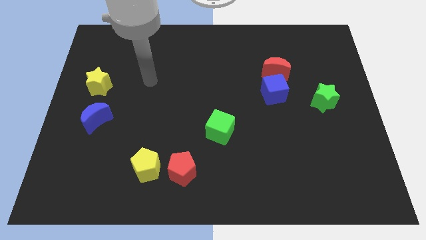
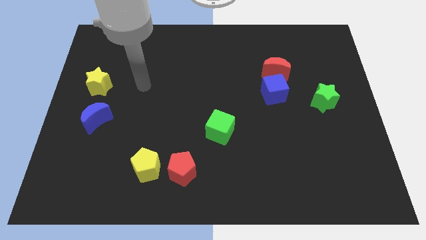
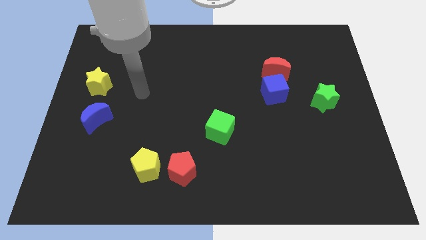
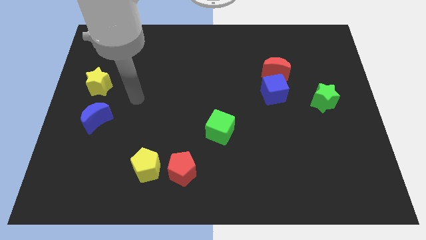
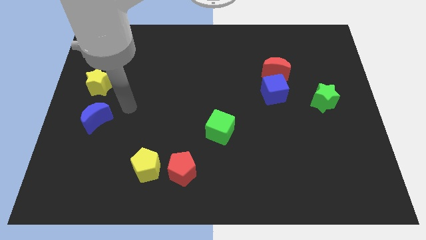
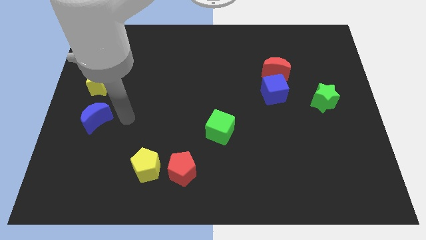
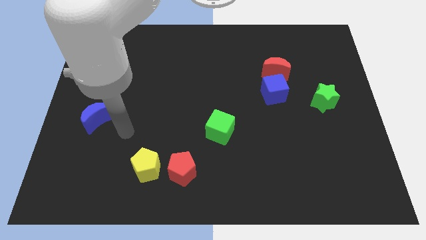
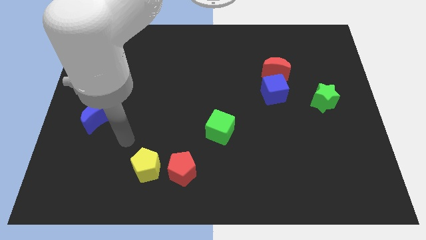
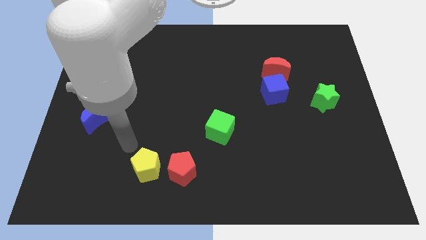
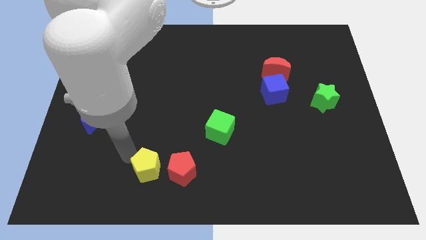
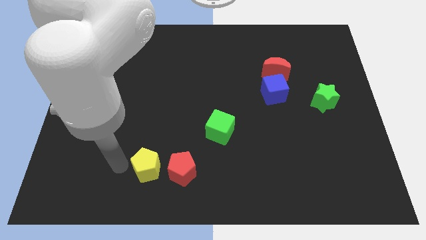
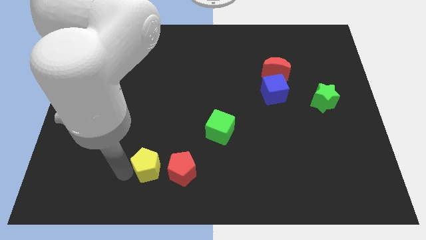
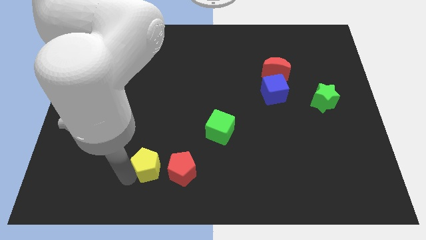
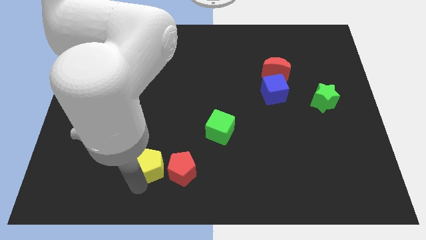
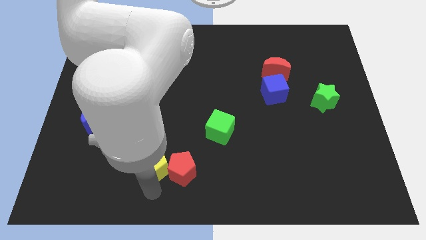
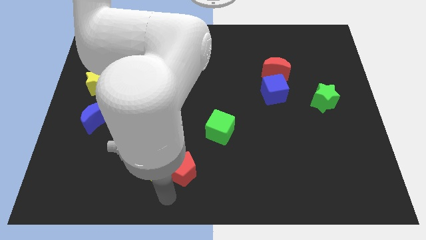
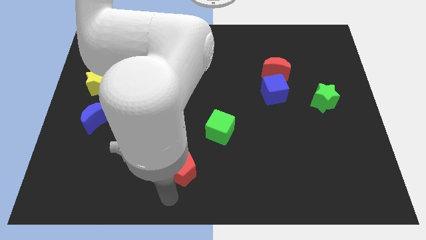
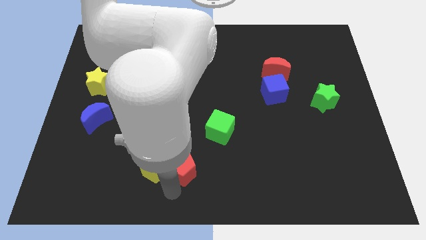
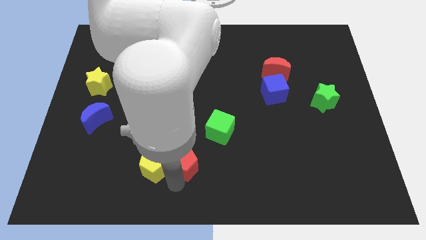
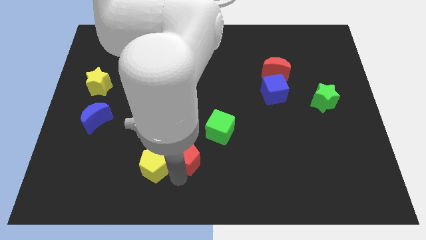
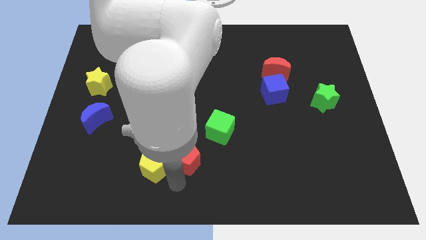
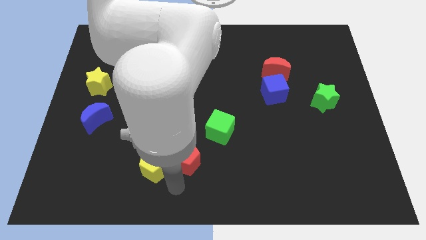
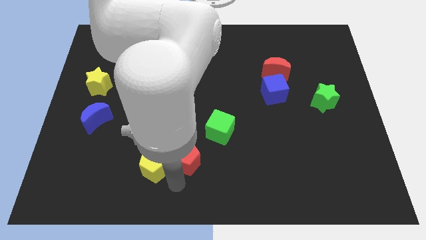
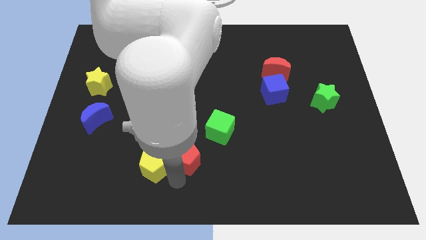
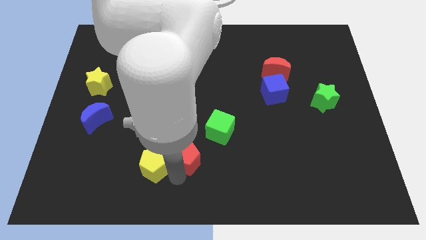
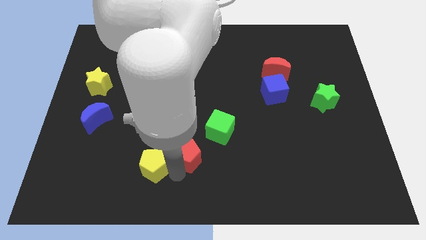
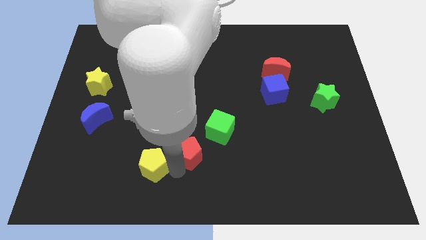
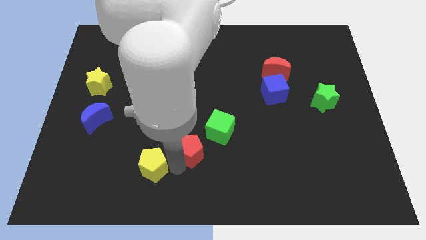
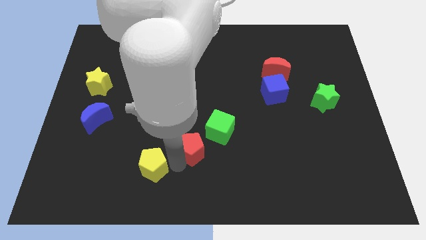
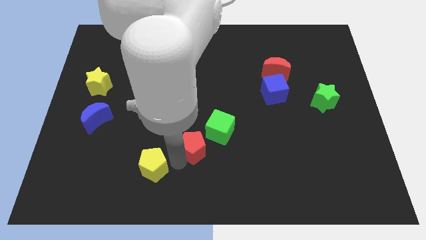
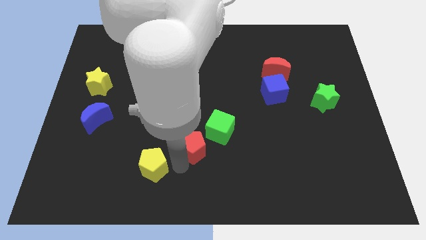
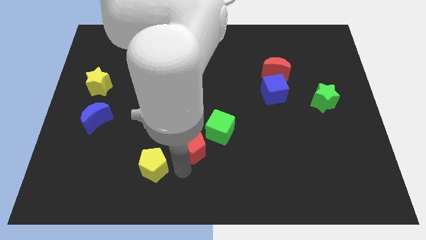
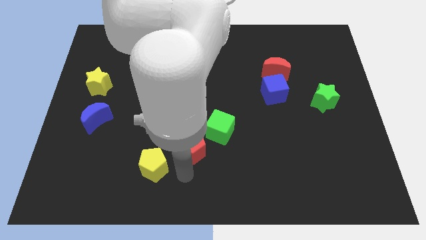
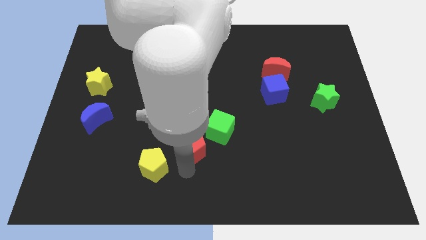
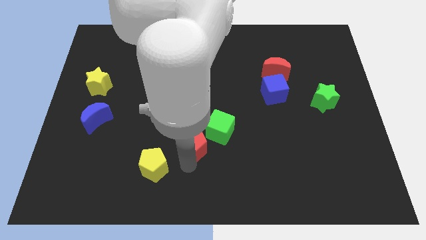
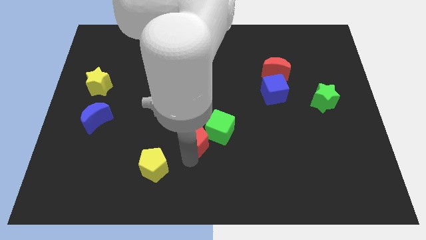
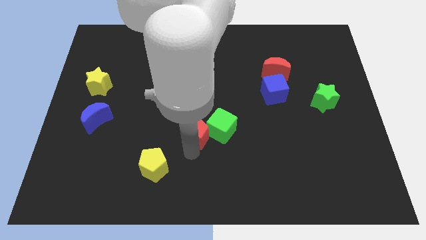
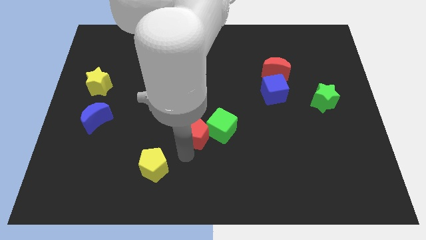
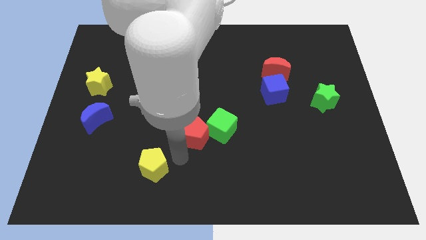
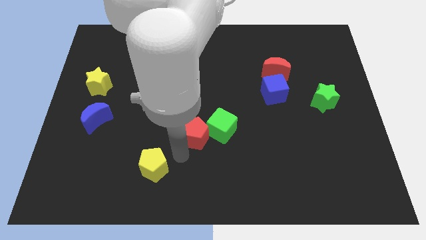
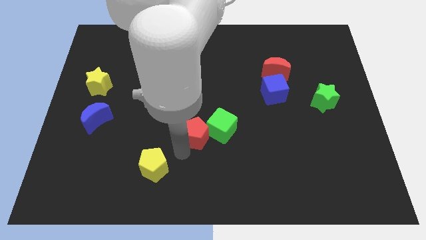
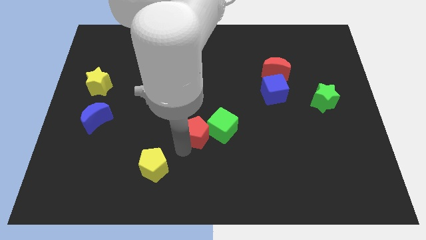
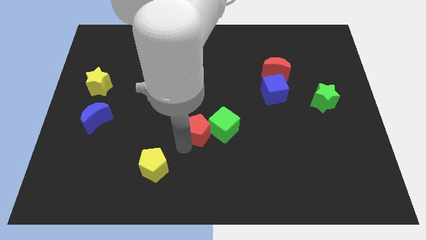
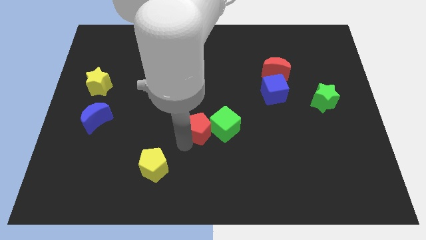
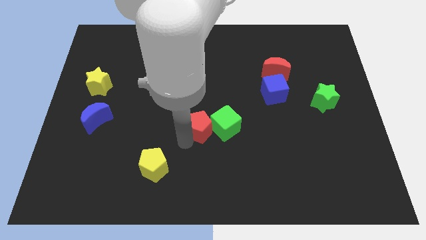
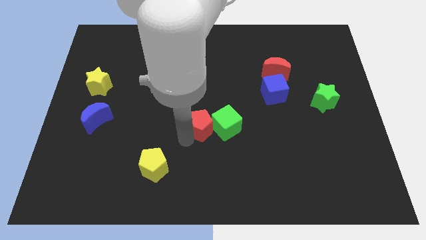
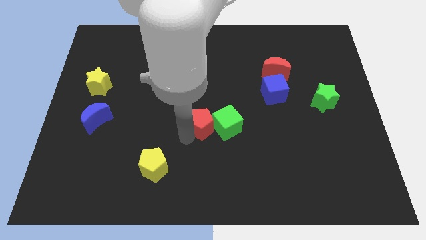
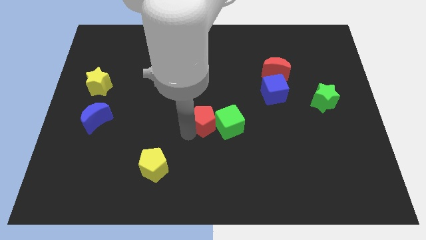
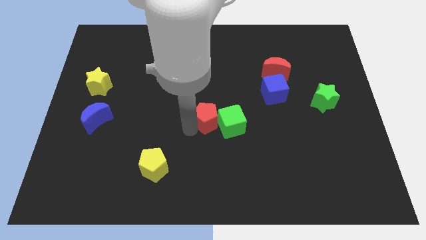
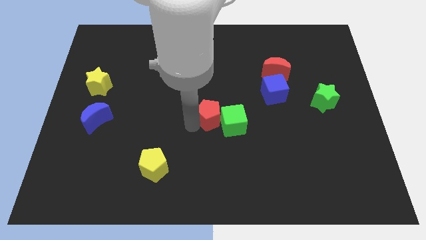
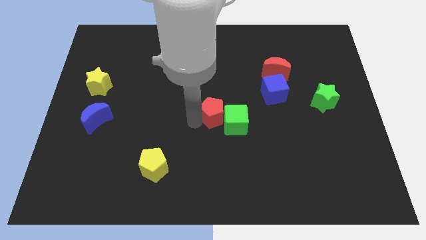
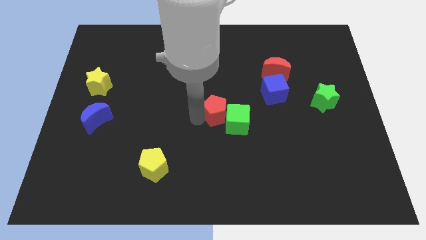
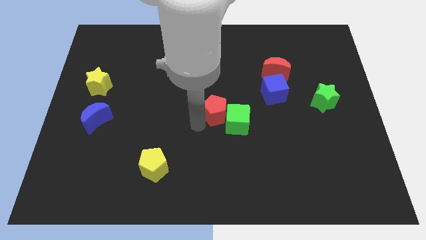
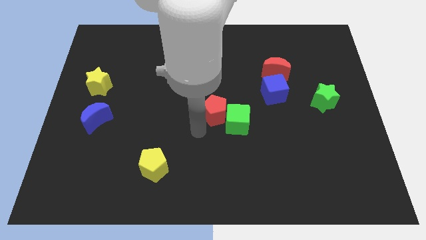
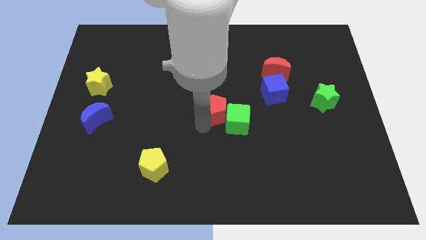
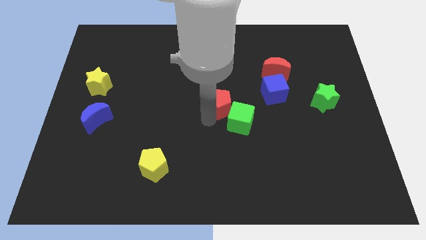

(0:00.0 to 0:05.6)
push the red pentagon above the green cube

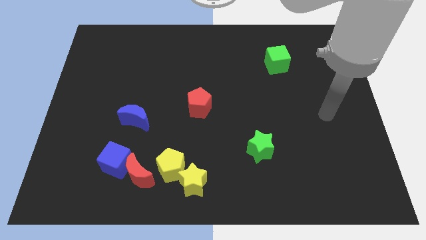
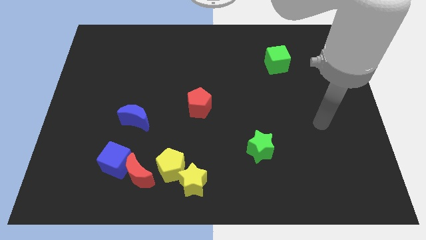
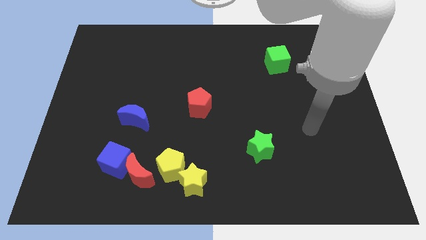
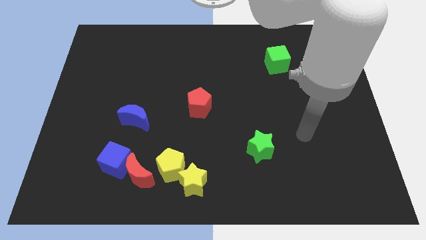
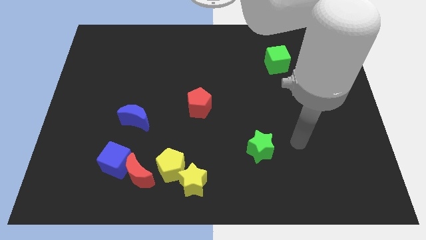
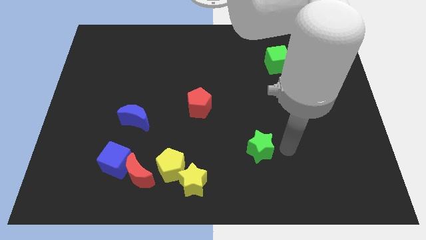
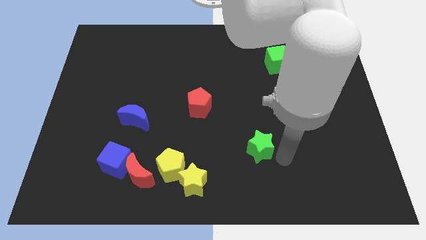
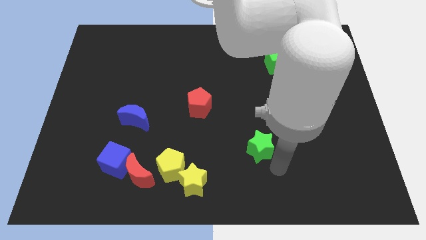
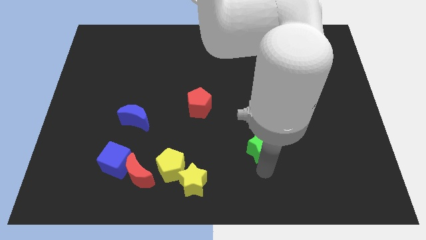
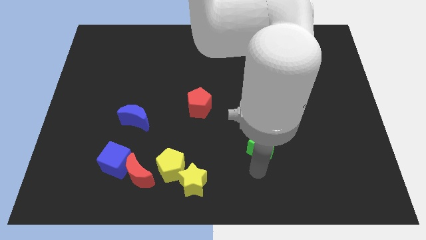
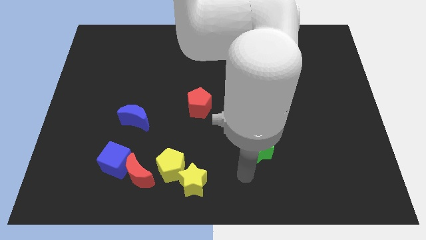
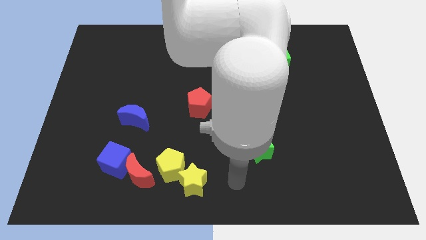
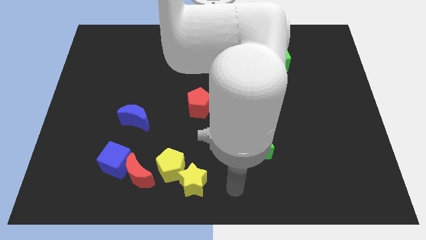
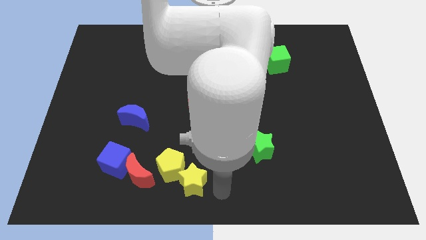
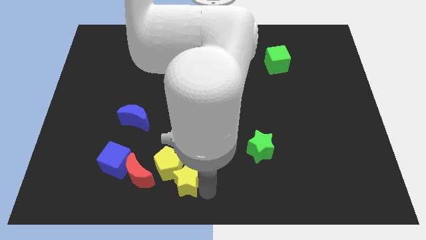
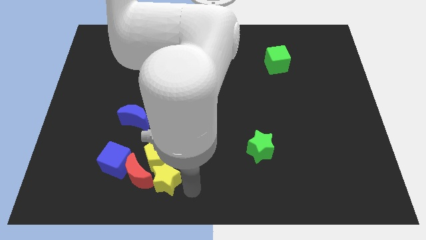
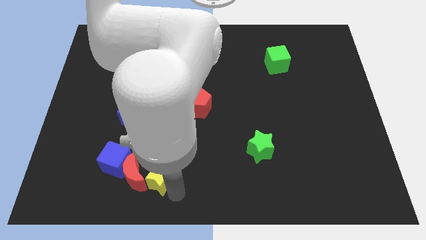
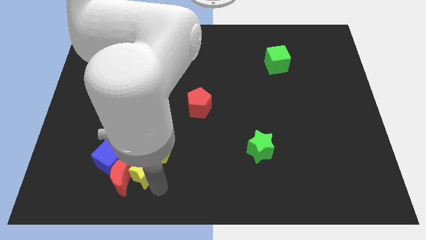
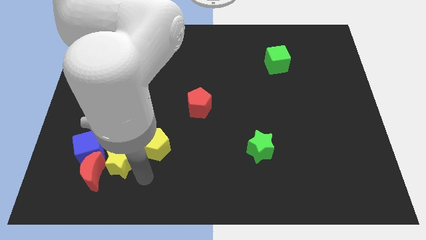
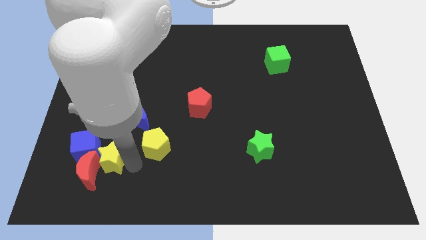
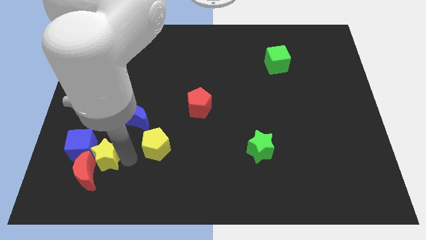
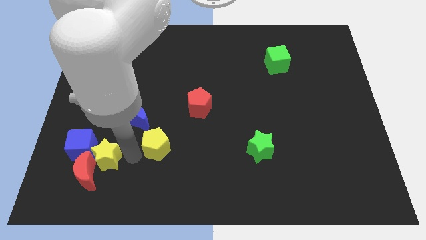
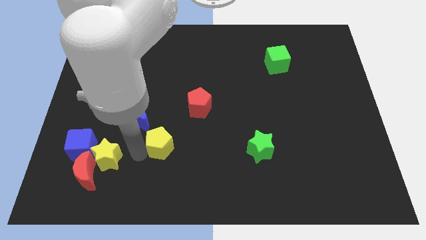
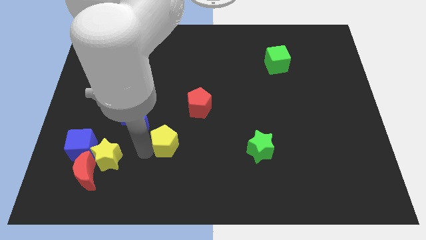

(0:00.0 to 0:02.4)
move the yellow pentagon to the bottom left of the red pentagon
